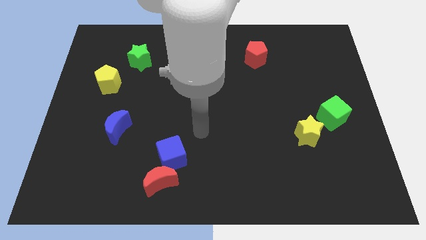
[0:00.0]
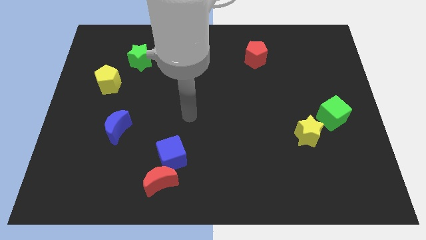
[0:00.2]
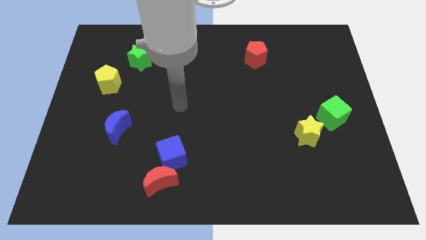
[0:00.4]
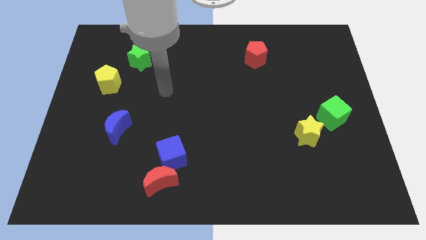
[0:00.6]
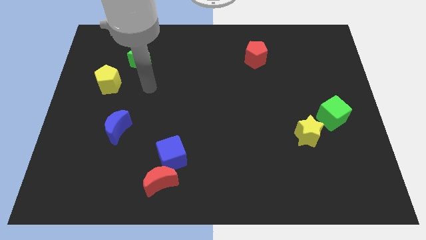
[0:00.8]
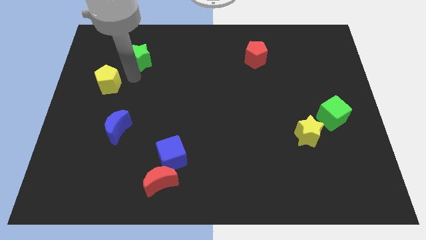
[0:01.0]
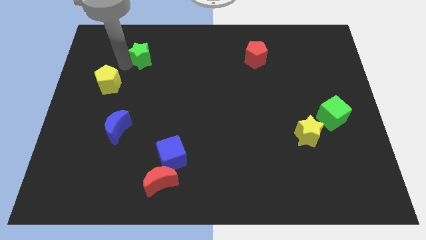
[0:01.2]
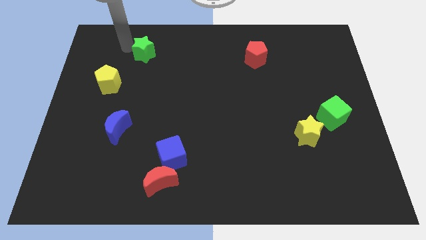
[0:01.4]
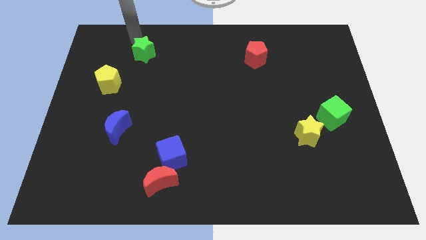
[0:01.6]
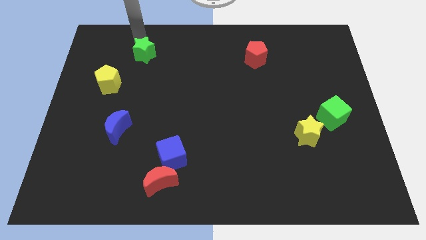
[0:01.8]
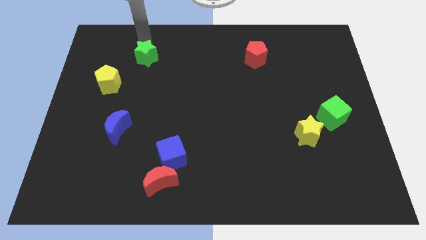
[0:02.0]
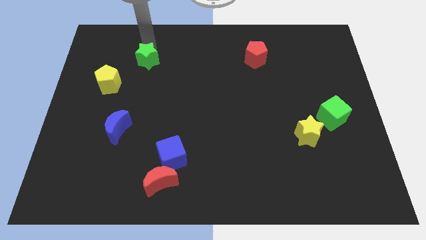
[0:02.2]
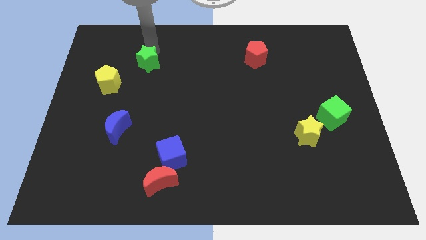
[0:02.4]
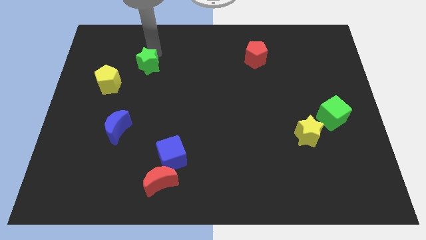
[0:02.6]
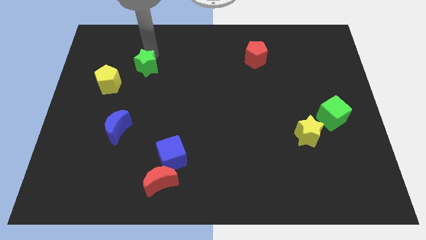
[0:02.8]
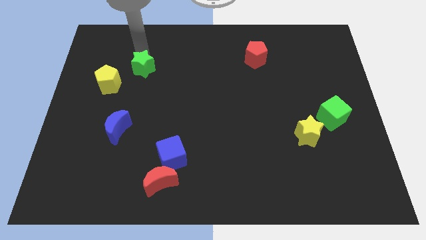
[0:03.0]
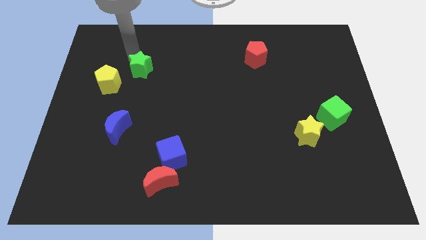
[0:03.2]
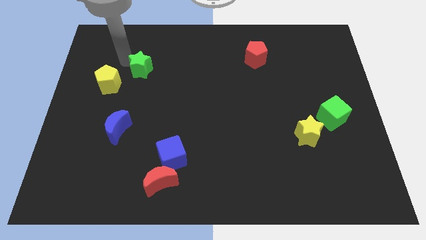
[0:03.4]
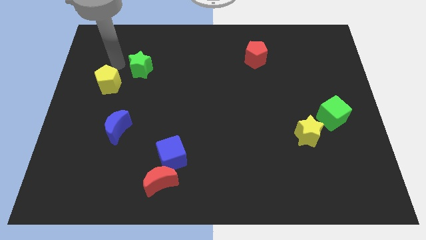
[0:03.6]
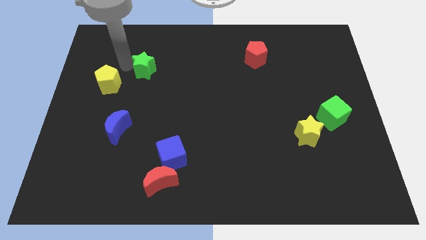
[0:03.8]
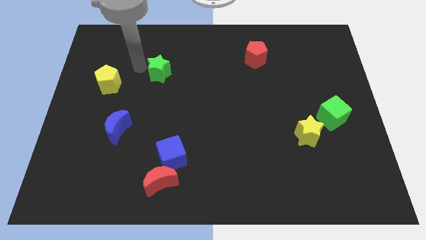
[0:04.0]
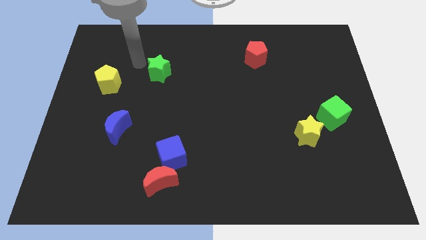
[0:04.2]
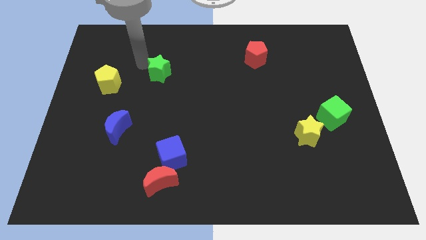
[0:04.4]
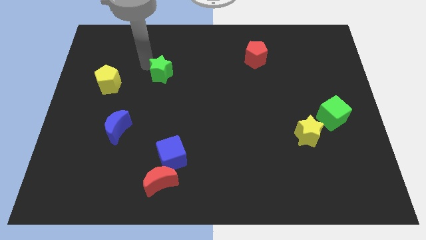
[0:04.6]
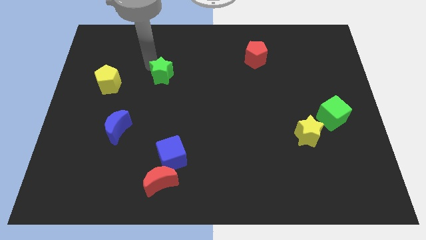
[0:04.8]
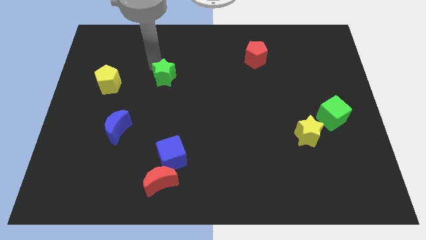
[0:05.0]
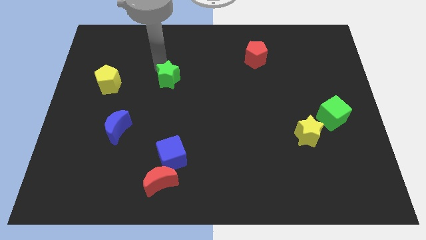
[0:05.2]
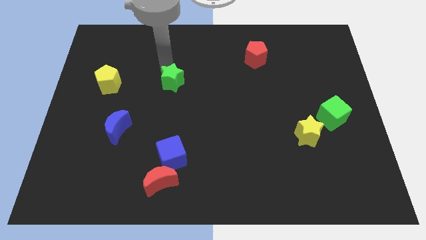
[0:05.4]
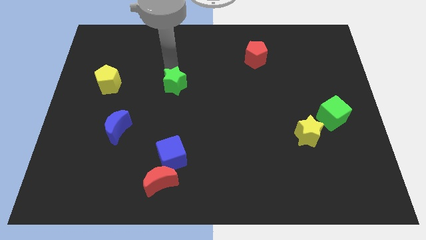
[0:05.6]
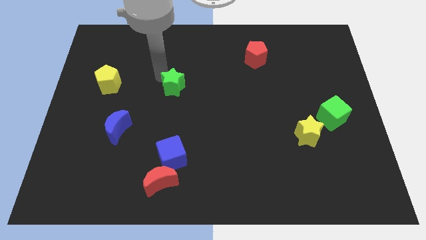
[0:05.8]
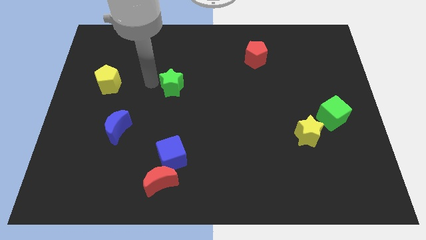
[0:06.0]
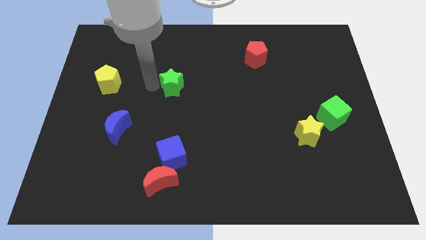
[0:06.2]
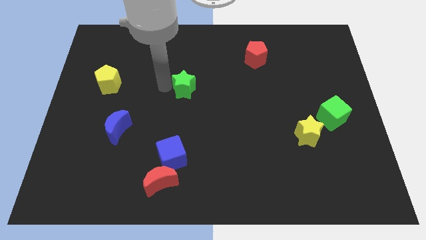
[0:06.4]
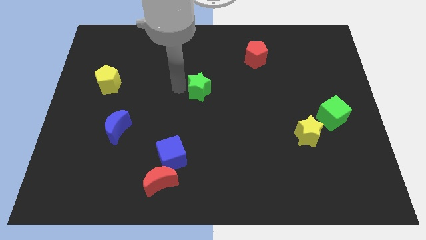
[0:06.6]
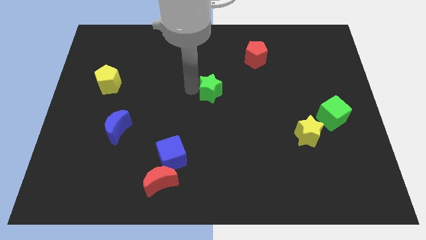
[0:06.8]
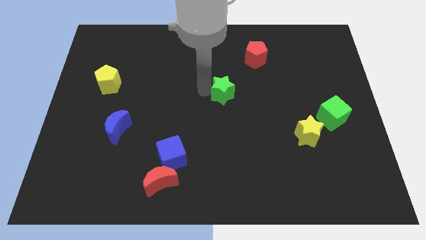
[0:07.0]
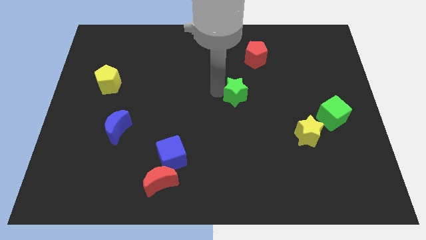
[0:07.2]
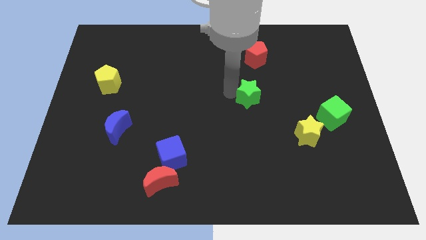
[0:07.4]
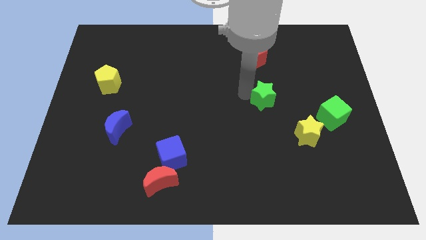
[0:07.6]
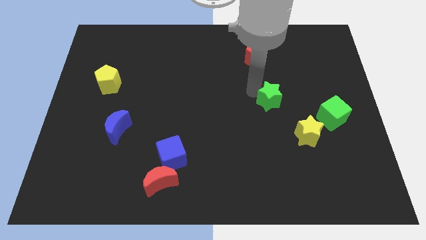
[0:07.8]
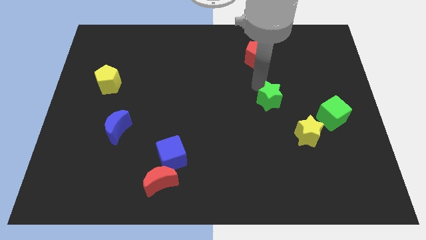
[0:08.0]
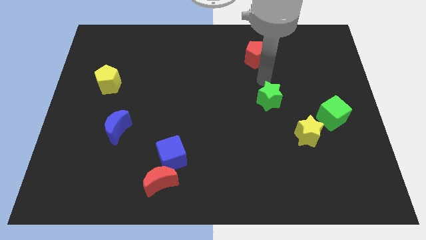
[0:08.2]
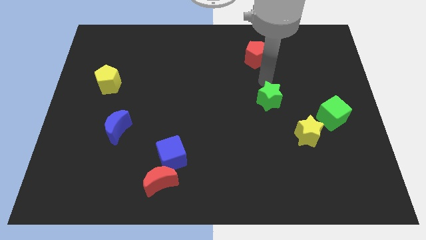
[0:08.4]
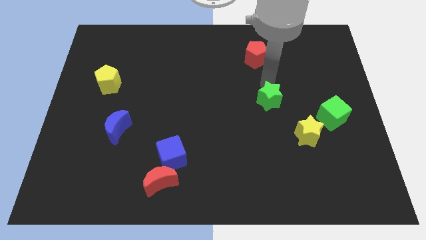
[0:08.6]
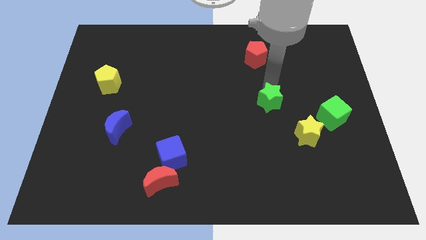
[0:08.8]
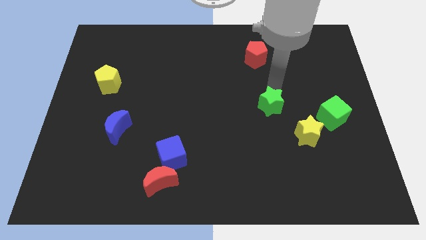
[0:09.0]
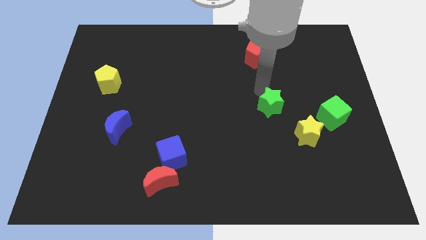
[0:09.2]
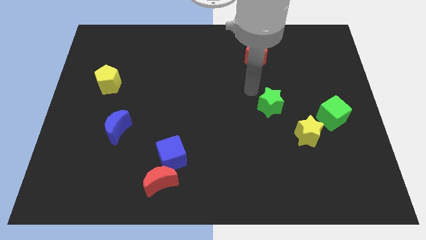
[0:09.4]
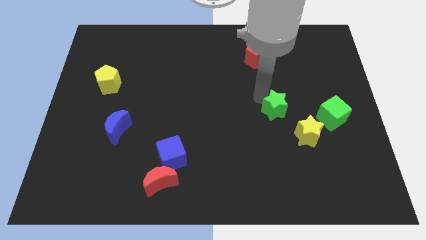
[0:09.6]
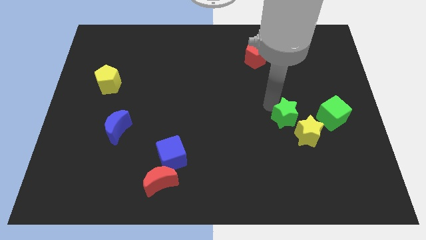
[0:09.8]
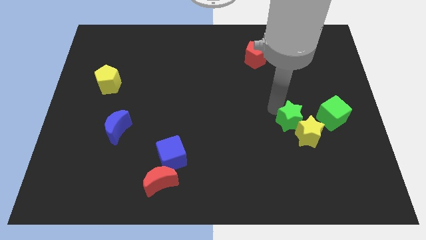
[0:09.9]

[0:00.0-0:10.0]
push the green star towards the yellow star

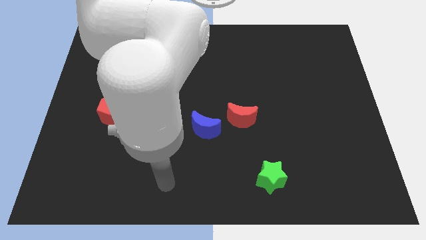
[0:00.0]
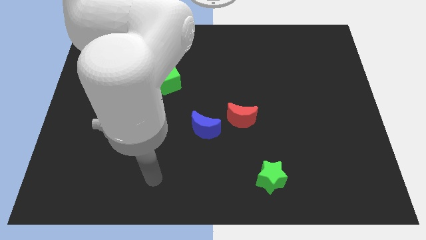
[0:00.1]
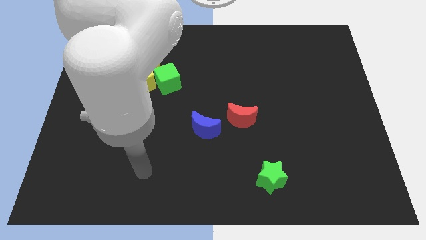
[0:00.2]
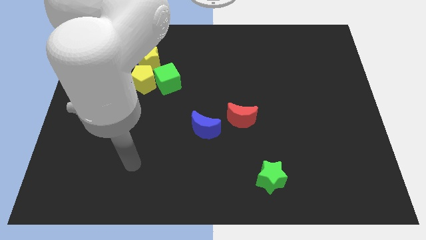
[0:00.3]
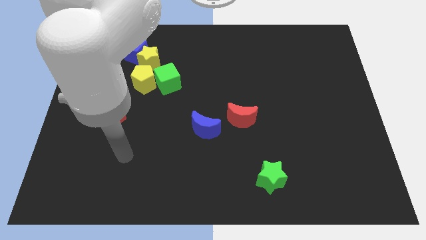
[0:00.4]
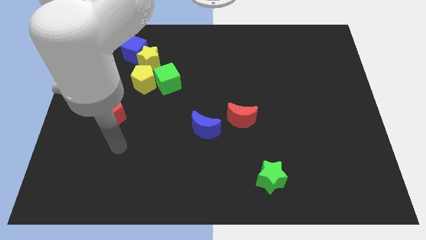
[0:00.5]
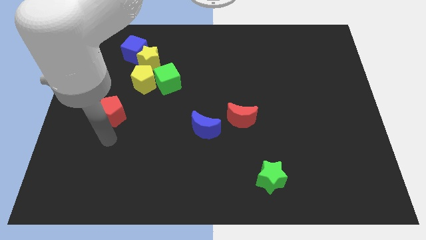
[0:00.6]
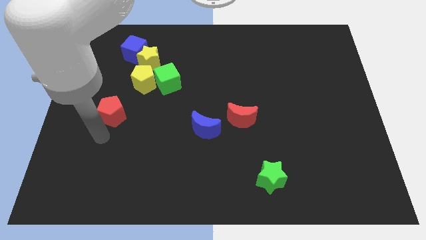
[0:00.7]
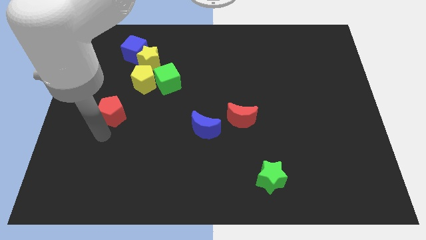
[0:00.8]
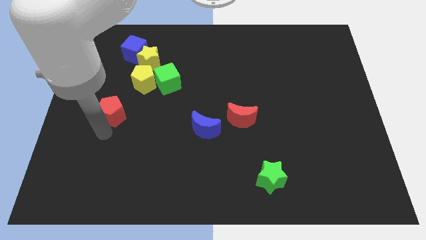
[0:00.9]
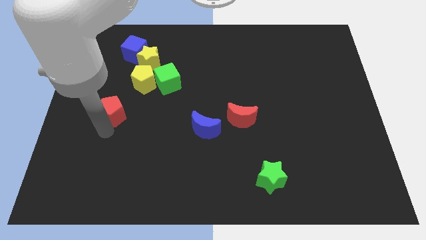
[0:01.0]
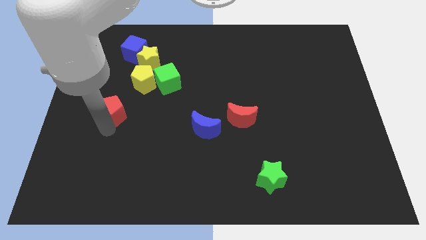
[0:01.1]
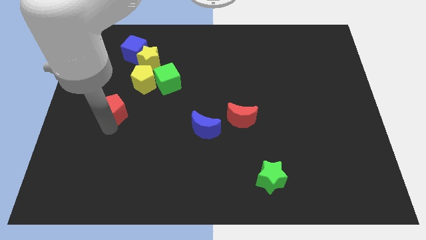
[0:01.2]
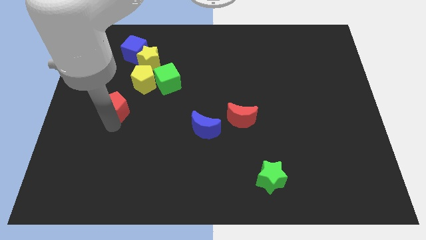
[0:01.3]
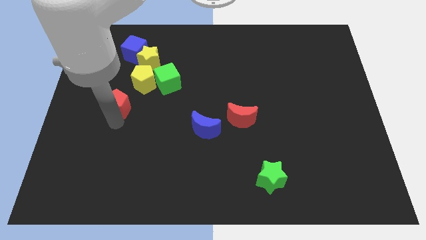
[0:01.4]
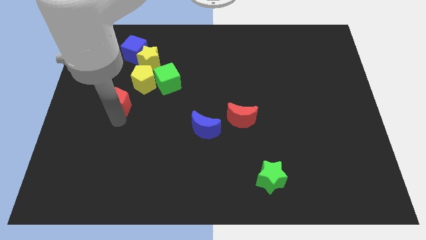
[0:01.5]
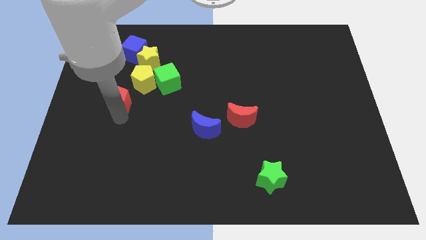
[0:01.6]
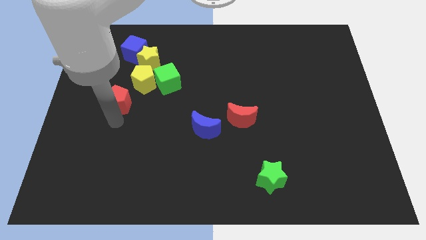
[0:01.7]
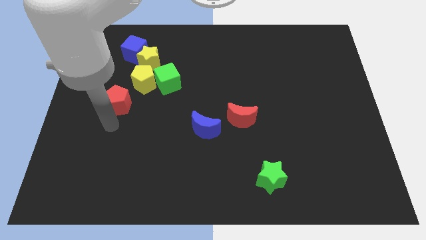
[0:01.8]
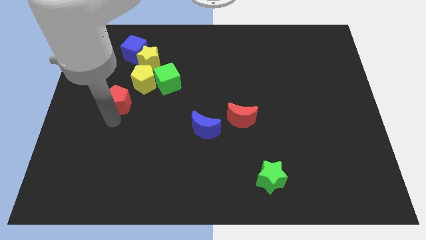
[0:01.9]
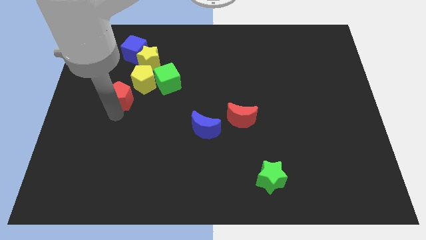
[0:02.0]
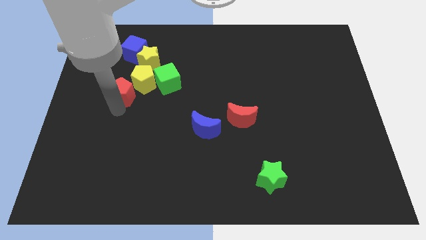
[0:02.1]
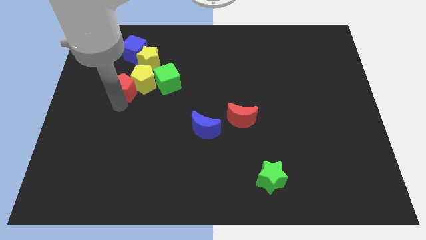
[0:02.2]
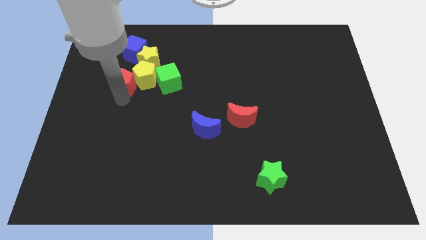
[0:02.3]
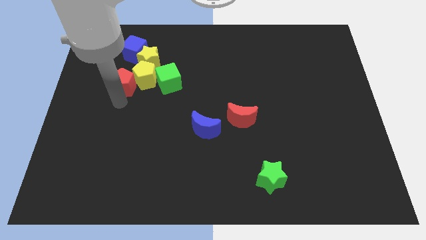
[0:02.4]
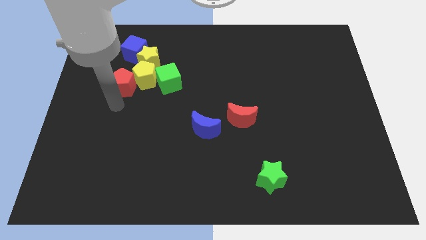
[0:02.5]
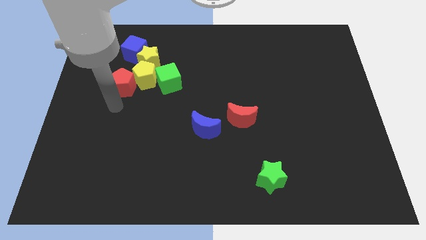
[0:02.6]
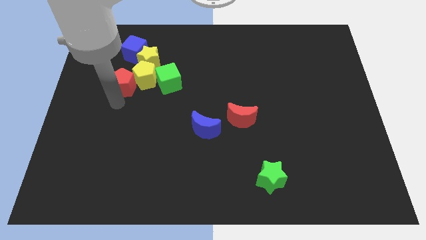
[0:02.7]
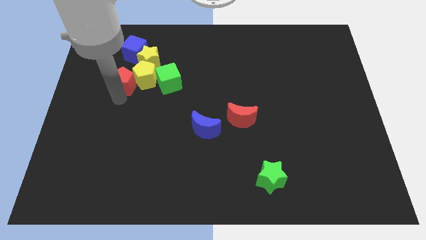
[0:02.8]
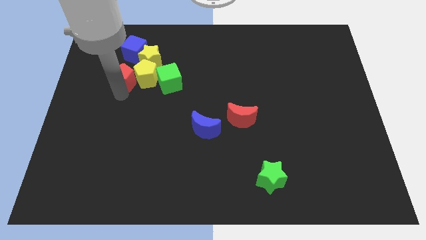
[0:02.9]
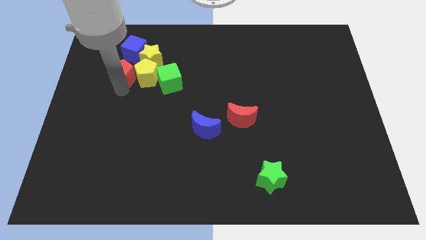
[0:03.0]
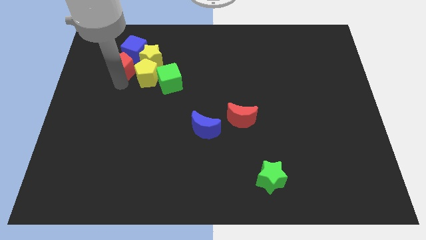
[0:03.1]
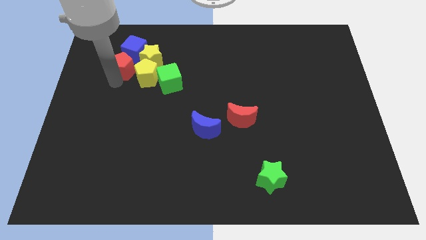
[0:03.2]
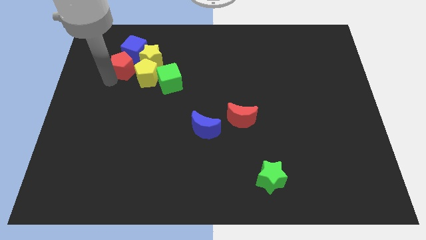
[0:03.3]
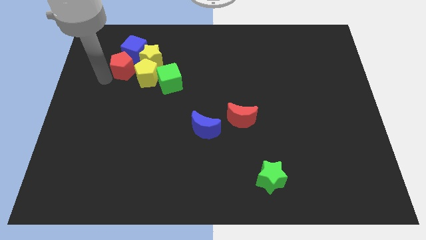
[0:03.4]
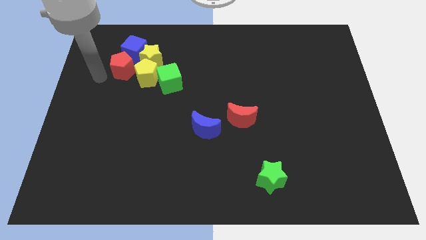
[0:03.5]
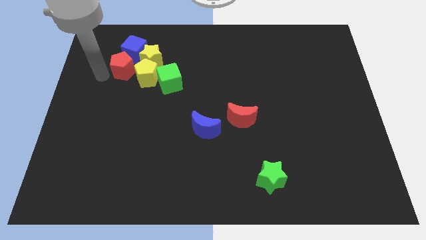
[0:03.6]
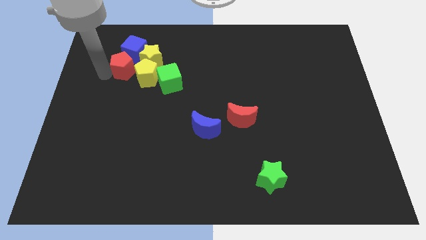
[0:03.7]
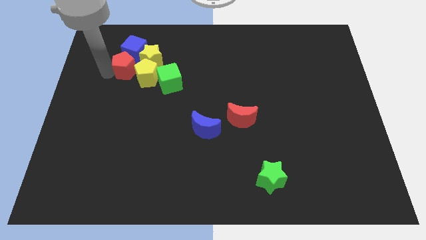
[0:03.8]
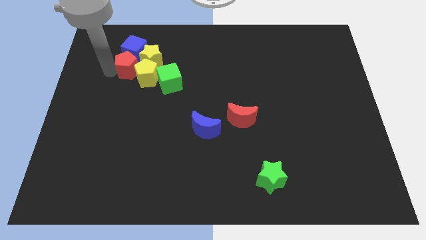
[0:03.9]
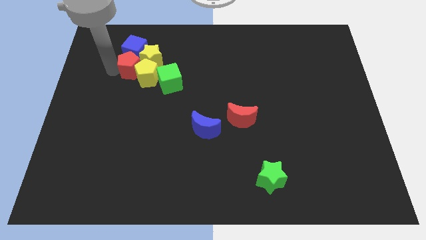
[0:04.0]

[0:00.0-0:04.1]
slide the red pentagon next to the yellow star
